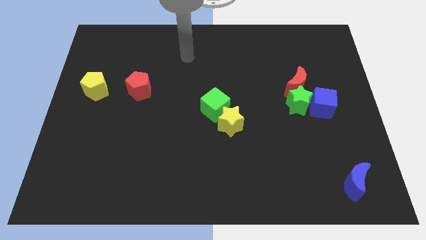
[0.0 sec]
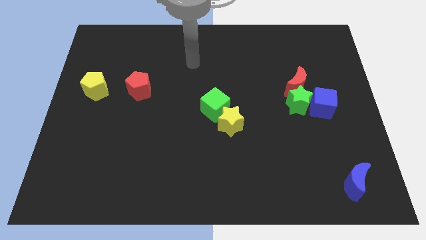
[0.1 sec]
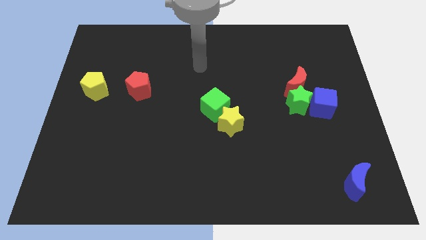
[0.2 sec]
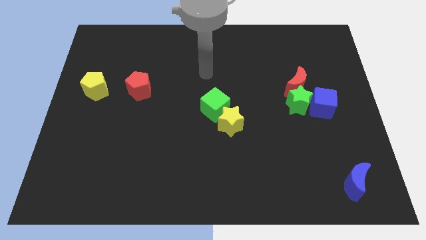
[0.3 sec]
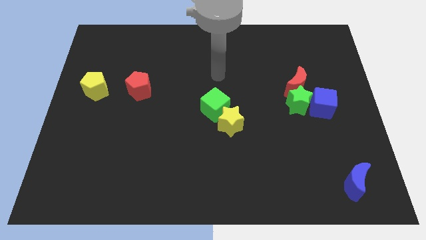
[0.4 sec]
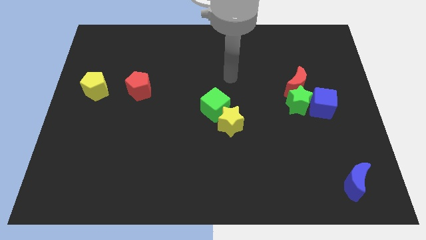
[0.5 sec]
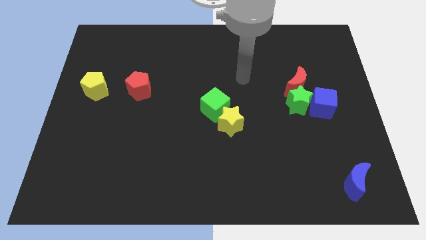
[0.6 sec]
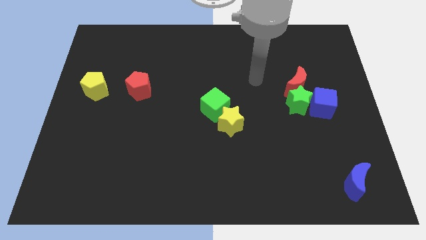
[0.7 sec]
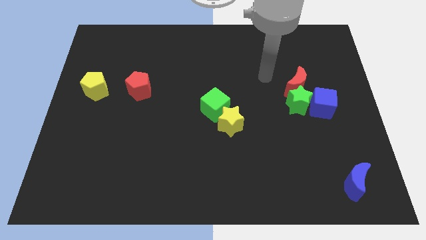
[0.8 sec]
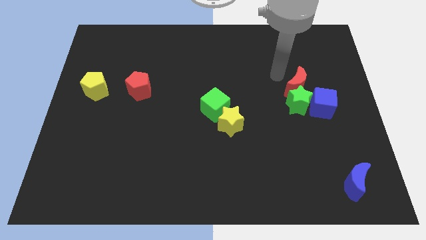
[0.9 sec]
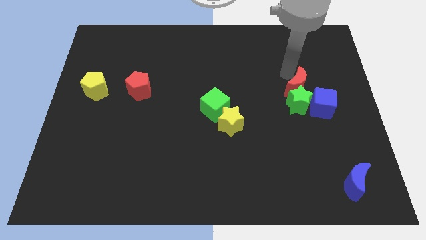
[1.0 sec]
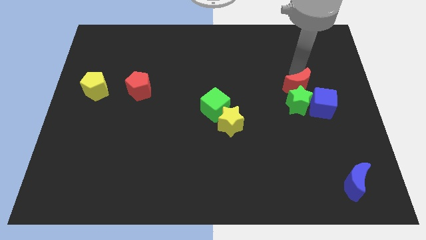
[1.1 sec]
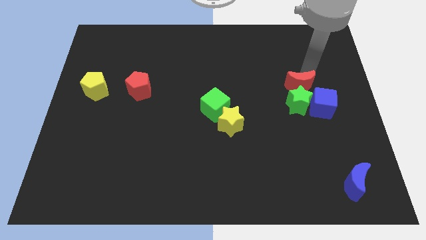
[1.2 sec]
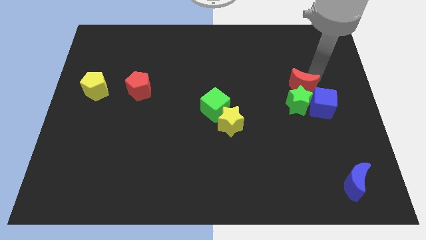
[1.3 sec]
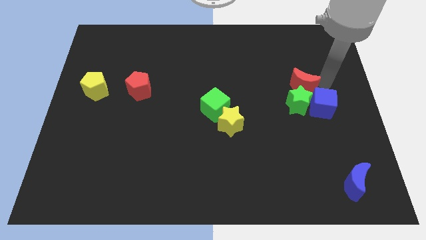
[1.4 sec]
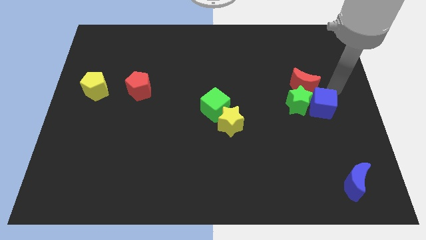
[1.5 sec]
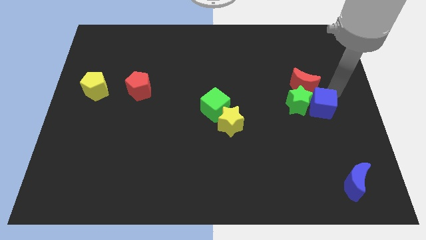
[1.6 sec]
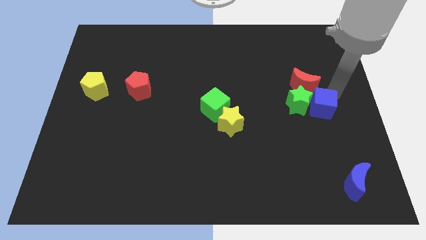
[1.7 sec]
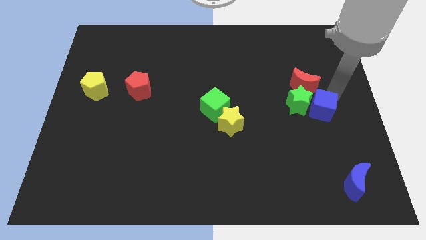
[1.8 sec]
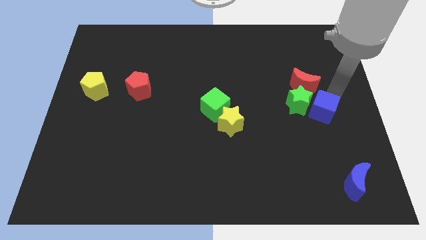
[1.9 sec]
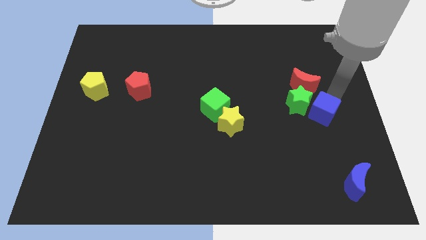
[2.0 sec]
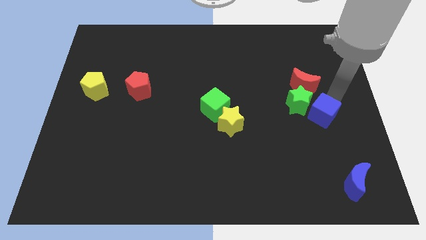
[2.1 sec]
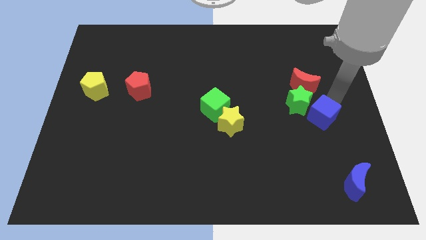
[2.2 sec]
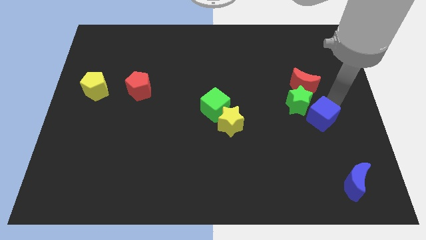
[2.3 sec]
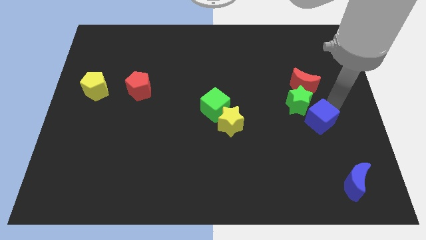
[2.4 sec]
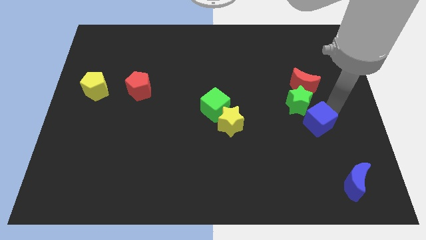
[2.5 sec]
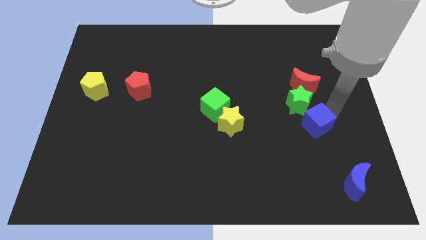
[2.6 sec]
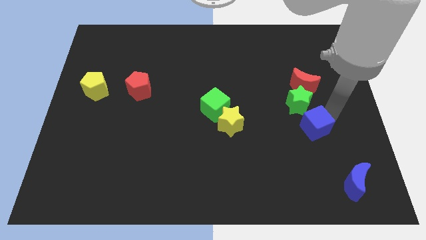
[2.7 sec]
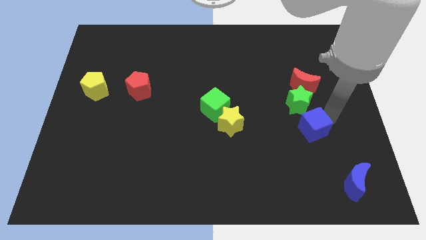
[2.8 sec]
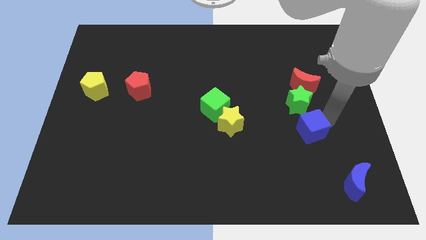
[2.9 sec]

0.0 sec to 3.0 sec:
move the blue cube a little bit downwards and then to the left

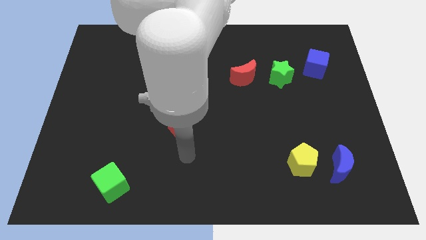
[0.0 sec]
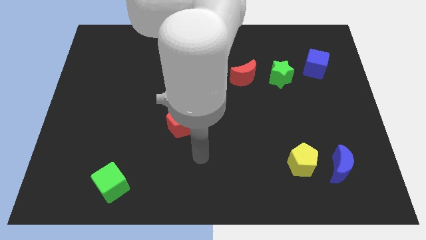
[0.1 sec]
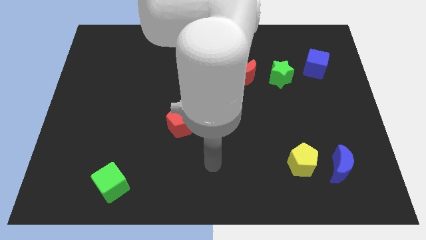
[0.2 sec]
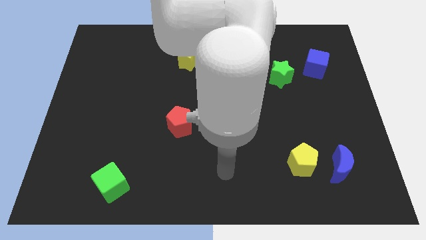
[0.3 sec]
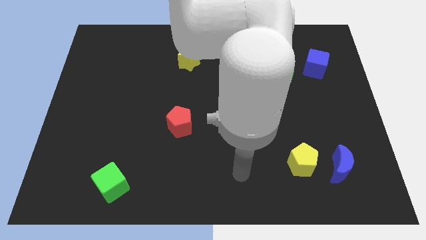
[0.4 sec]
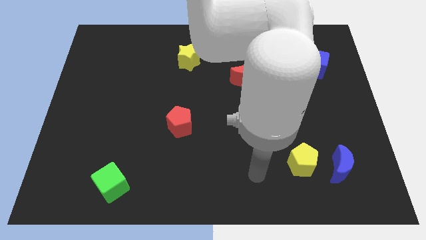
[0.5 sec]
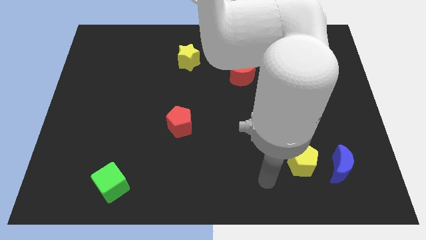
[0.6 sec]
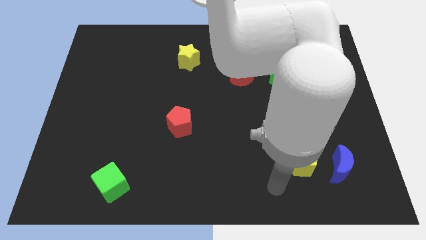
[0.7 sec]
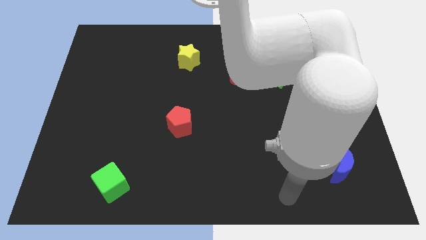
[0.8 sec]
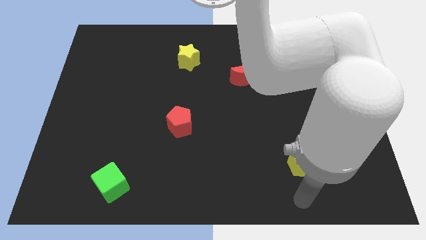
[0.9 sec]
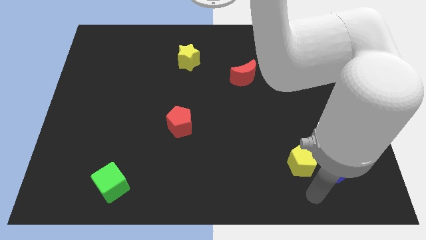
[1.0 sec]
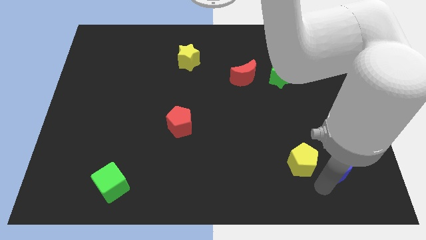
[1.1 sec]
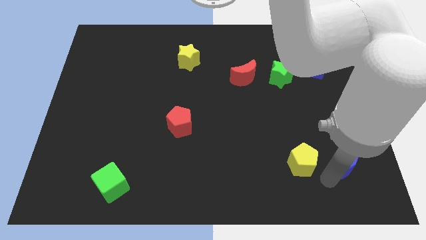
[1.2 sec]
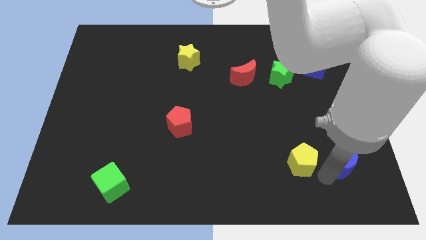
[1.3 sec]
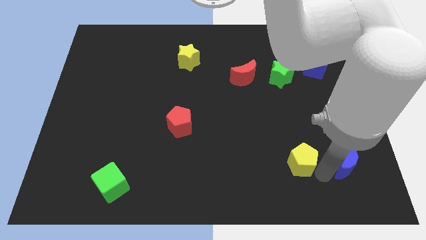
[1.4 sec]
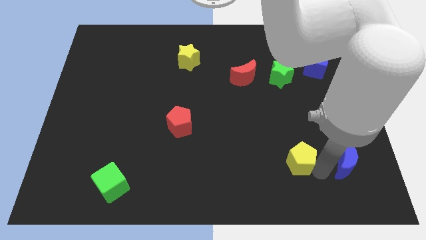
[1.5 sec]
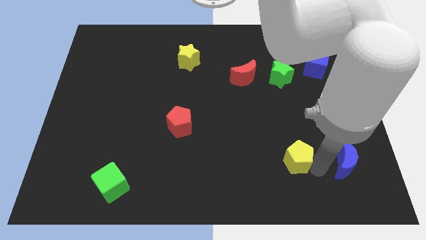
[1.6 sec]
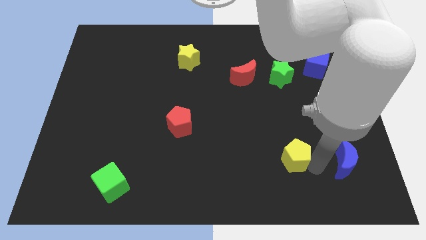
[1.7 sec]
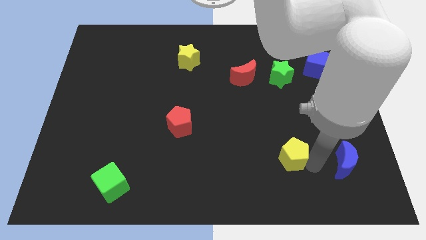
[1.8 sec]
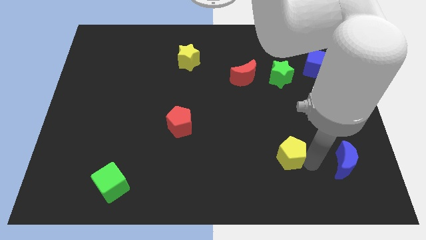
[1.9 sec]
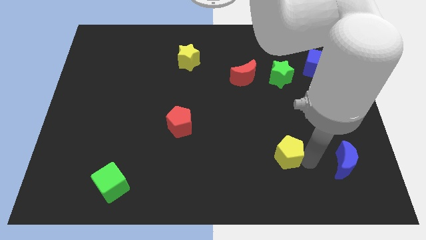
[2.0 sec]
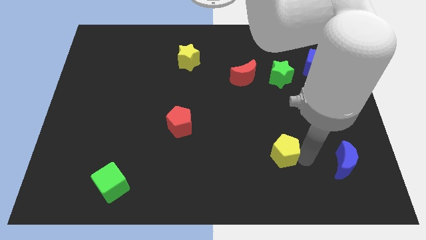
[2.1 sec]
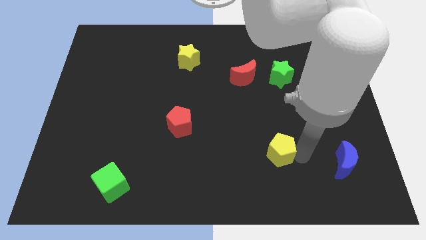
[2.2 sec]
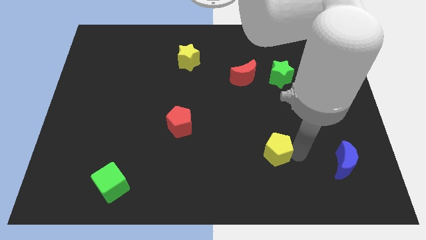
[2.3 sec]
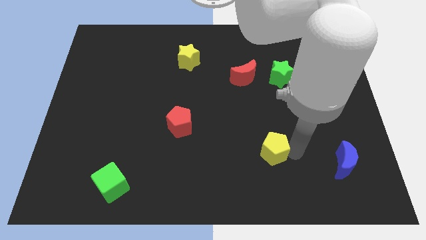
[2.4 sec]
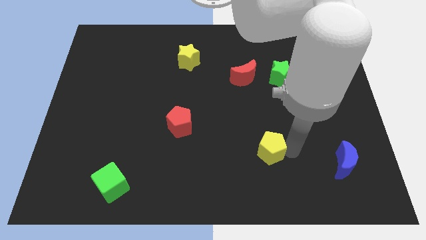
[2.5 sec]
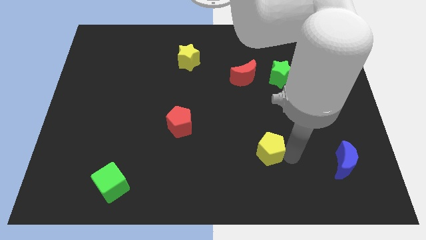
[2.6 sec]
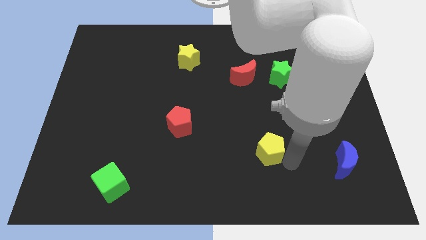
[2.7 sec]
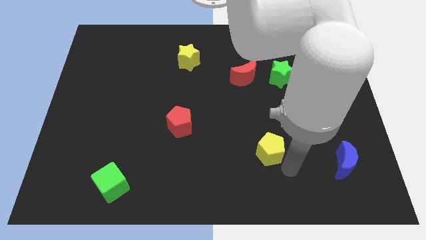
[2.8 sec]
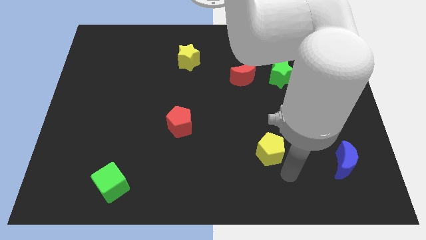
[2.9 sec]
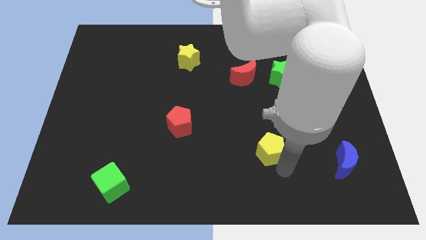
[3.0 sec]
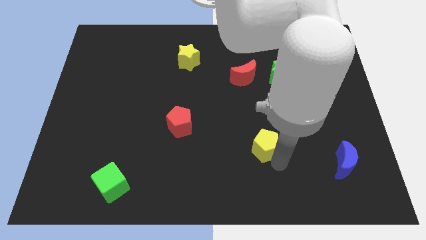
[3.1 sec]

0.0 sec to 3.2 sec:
push the yellow pentagon upwards and to the left somewhat

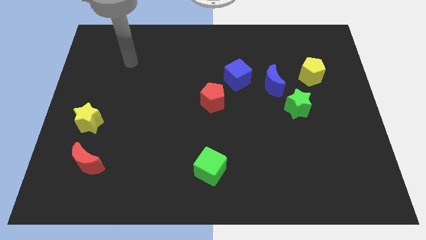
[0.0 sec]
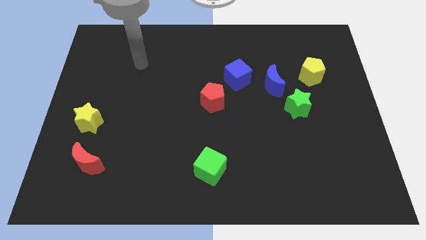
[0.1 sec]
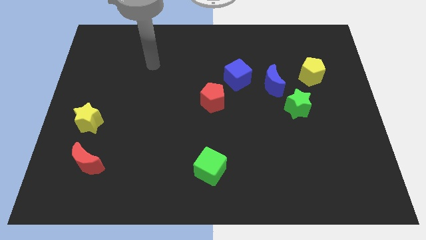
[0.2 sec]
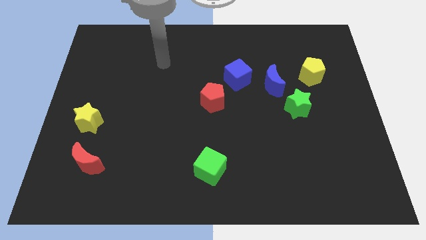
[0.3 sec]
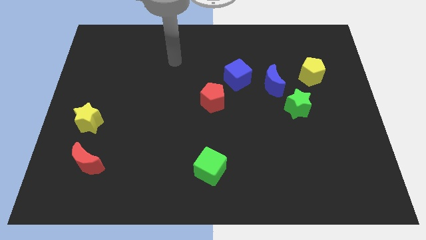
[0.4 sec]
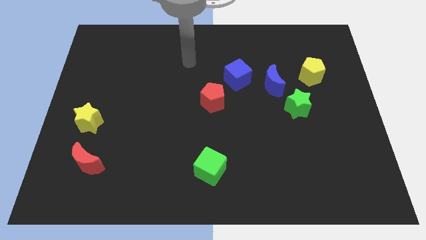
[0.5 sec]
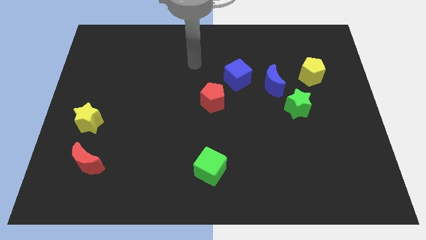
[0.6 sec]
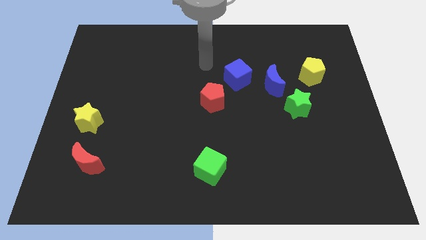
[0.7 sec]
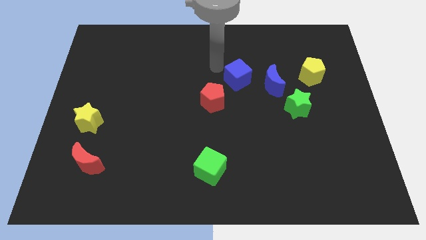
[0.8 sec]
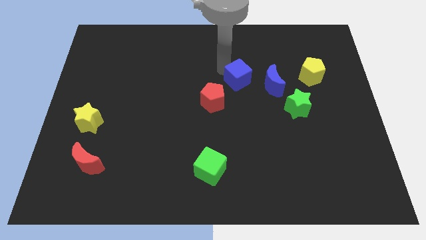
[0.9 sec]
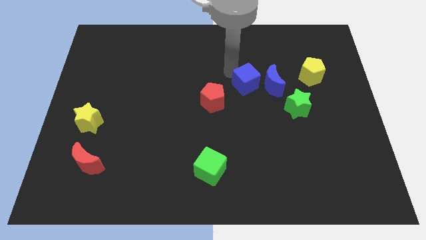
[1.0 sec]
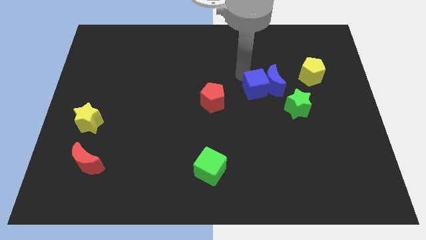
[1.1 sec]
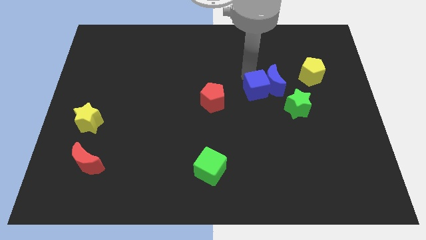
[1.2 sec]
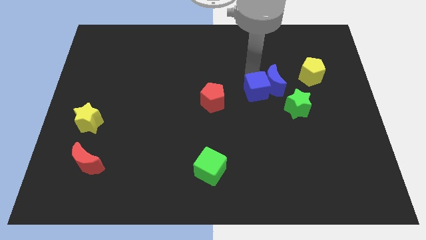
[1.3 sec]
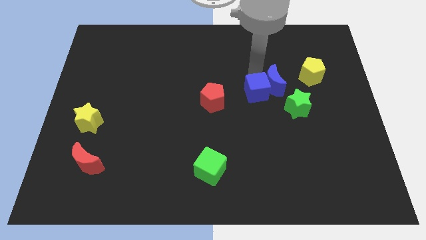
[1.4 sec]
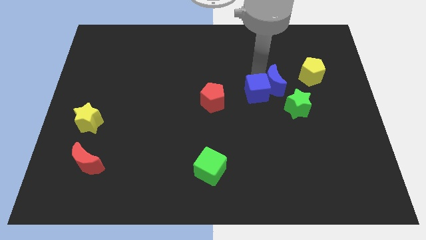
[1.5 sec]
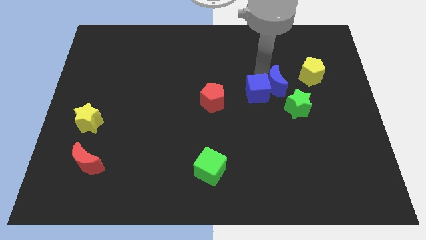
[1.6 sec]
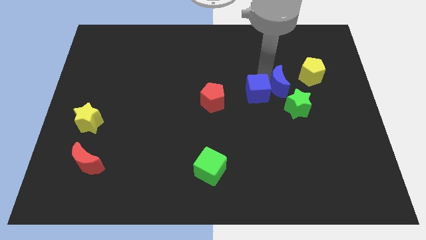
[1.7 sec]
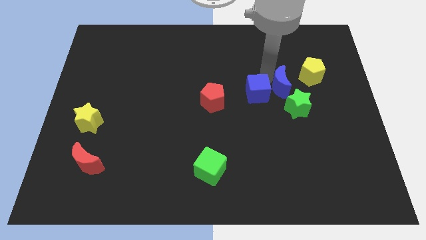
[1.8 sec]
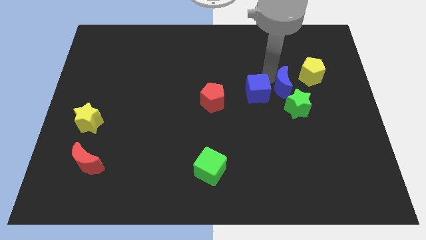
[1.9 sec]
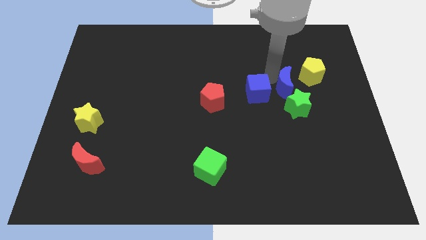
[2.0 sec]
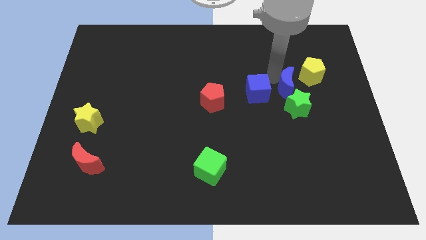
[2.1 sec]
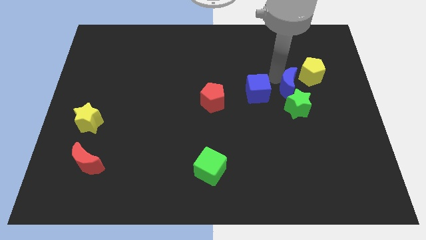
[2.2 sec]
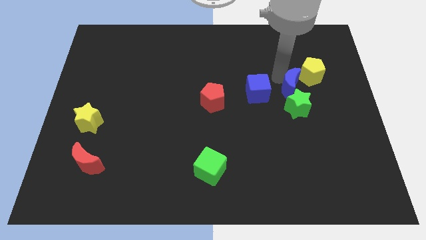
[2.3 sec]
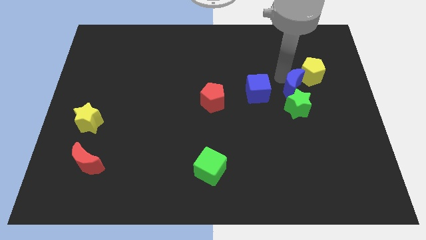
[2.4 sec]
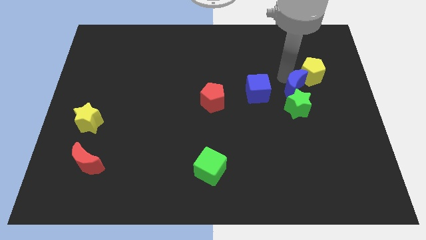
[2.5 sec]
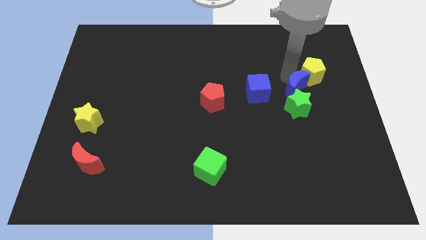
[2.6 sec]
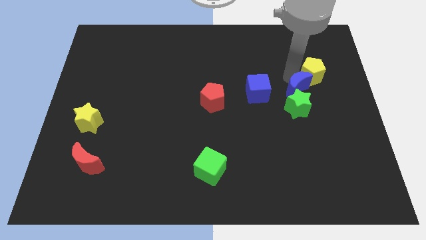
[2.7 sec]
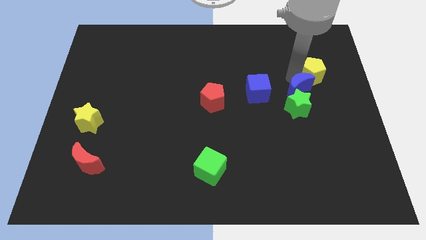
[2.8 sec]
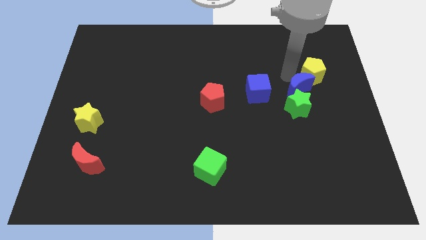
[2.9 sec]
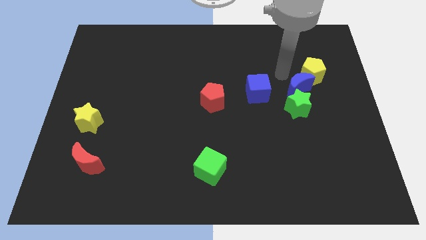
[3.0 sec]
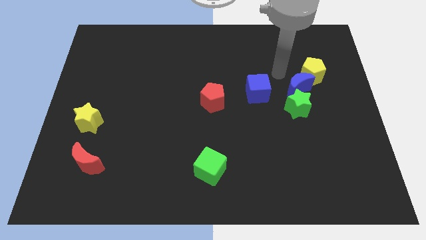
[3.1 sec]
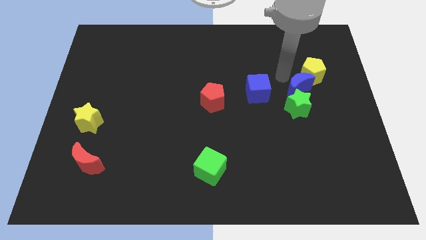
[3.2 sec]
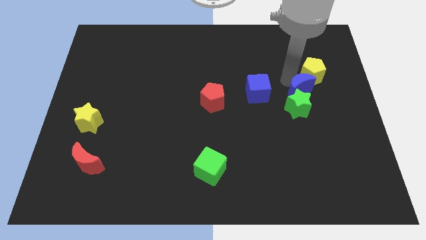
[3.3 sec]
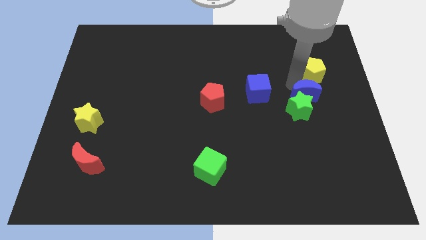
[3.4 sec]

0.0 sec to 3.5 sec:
move the blue moon a little bit downwards and to the right diagonally
